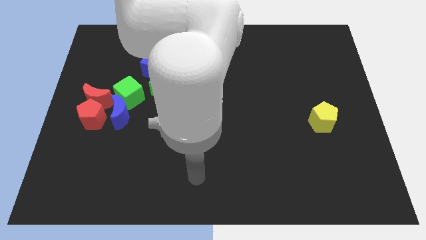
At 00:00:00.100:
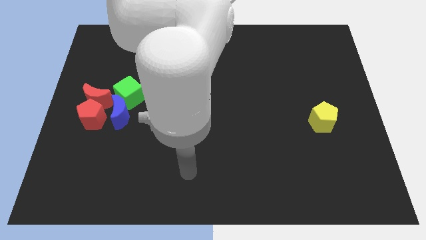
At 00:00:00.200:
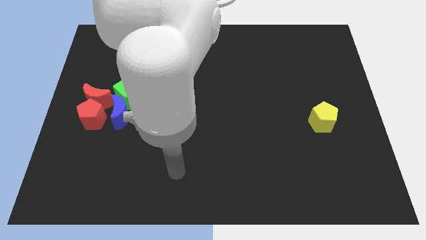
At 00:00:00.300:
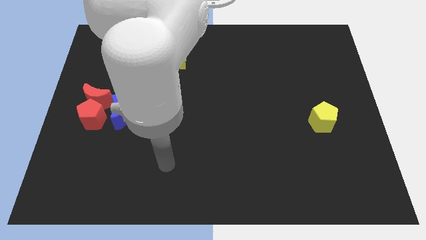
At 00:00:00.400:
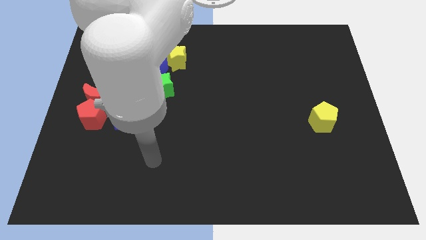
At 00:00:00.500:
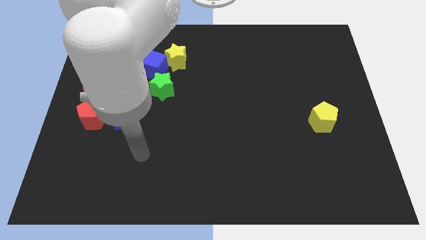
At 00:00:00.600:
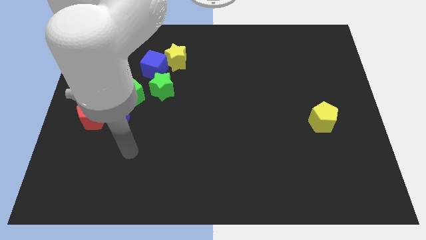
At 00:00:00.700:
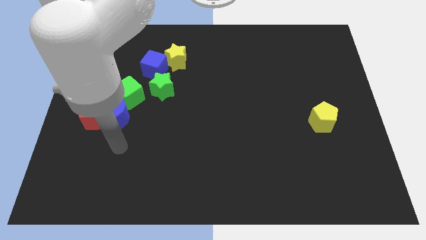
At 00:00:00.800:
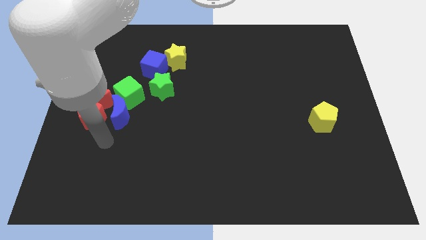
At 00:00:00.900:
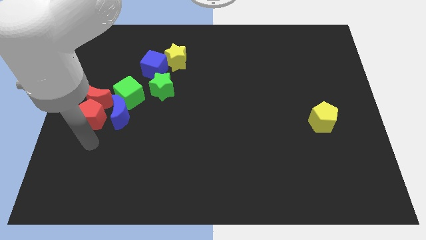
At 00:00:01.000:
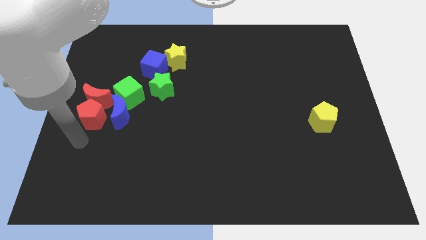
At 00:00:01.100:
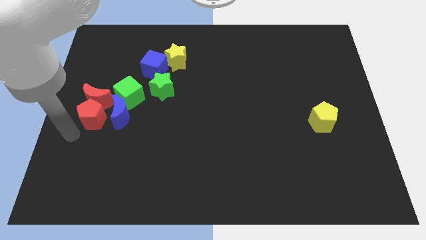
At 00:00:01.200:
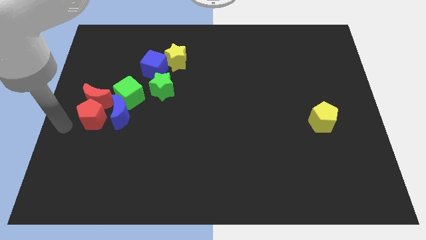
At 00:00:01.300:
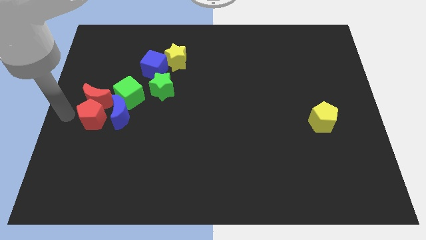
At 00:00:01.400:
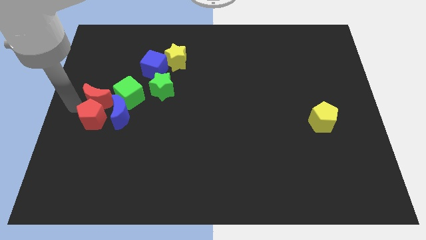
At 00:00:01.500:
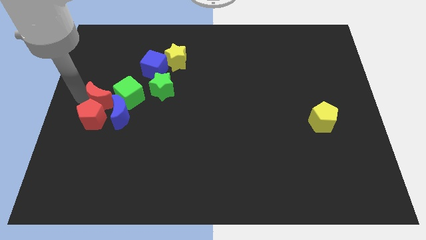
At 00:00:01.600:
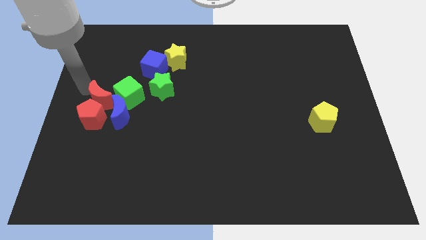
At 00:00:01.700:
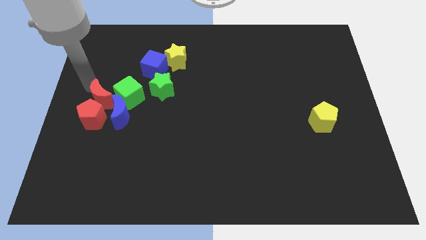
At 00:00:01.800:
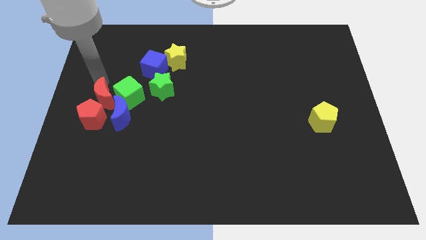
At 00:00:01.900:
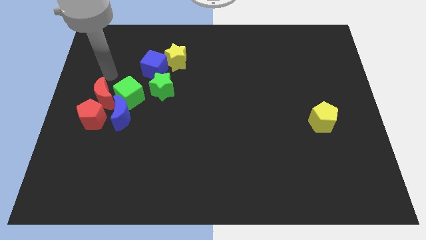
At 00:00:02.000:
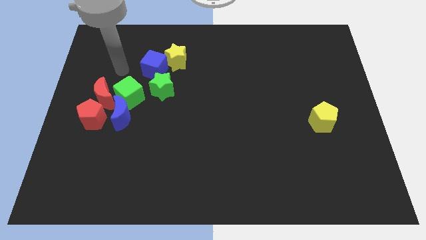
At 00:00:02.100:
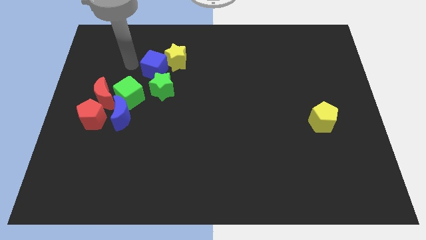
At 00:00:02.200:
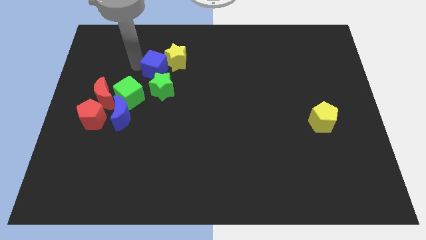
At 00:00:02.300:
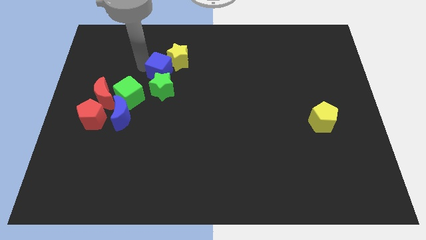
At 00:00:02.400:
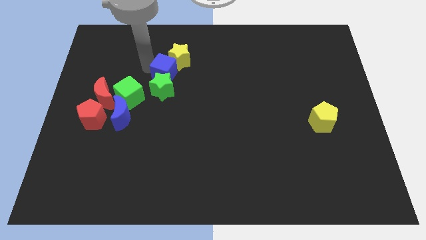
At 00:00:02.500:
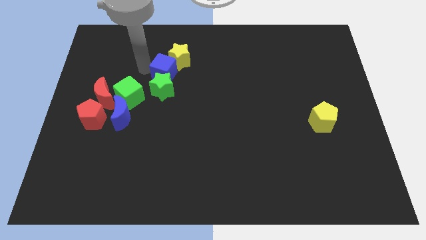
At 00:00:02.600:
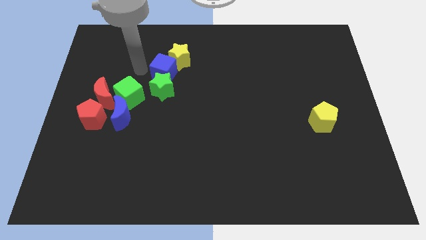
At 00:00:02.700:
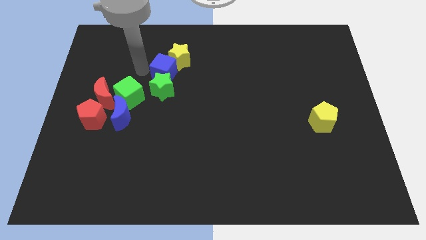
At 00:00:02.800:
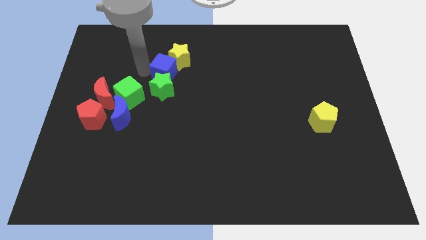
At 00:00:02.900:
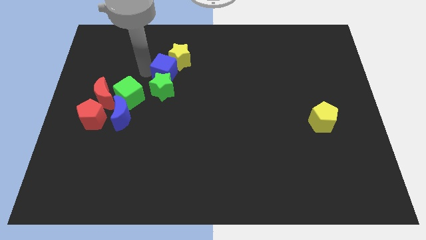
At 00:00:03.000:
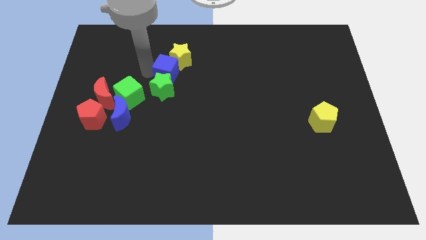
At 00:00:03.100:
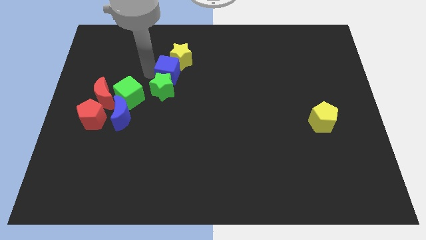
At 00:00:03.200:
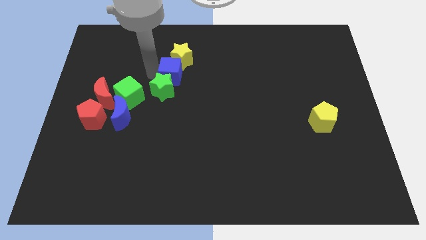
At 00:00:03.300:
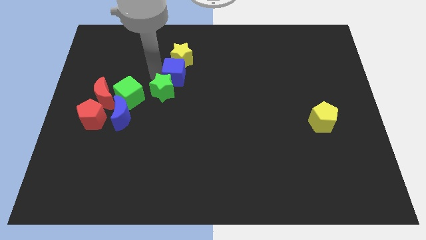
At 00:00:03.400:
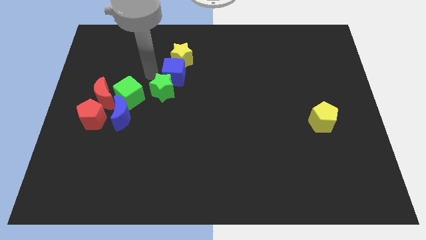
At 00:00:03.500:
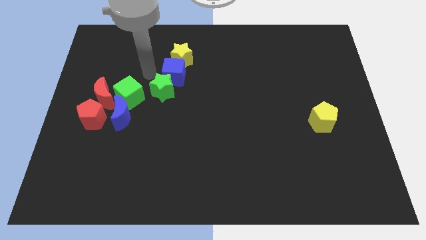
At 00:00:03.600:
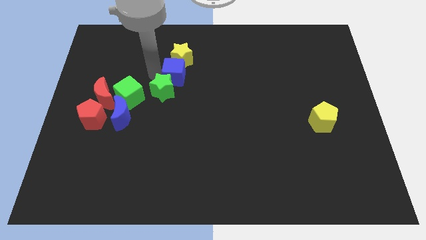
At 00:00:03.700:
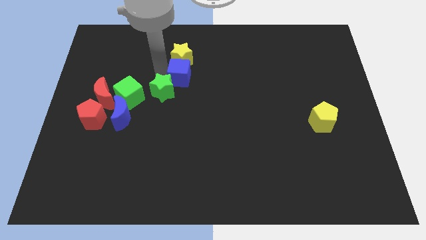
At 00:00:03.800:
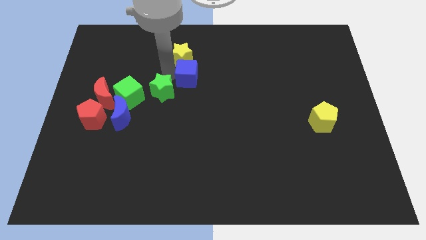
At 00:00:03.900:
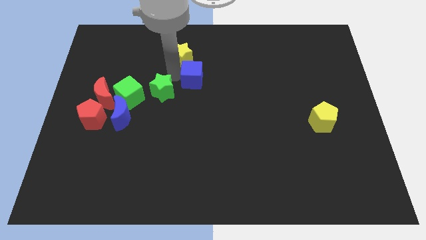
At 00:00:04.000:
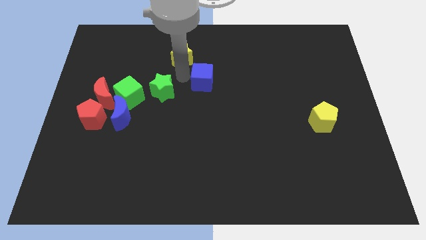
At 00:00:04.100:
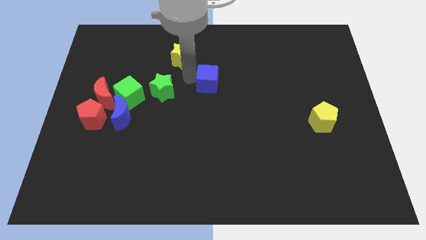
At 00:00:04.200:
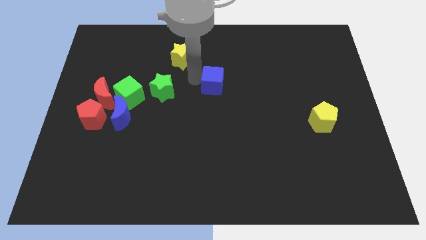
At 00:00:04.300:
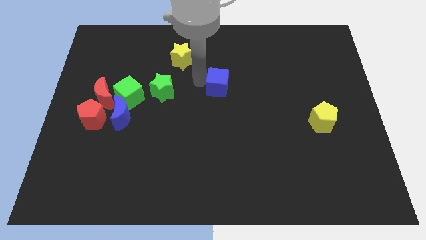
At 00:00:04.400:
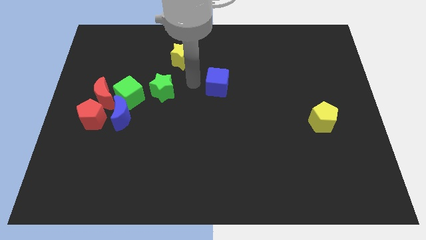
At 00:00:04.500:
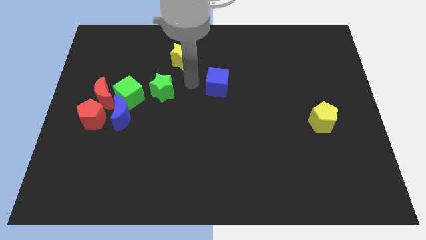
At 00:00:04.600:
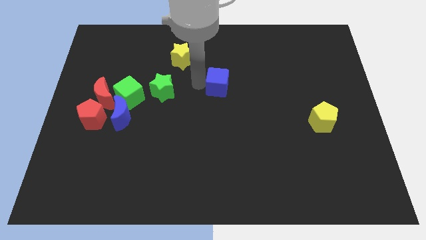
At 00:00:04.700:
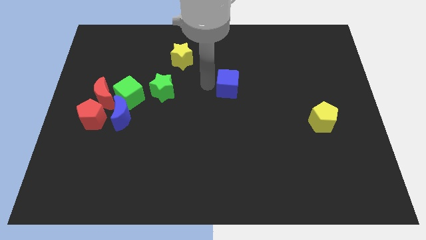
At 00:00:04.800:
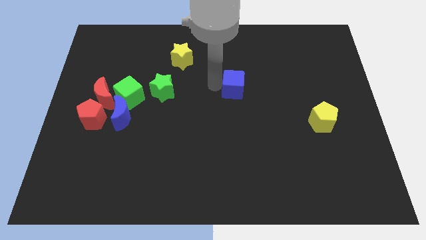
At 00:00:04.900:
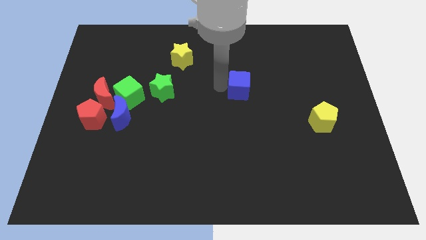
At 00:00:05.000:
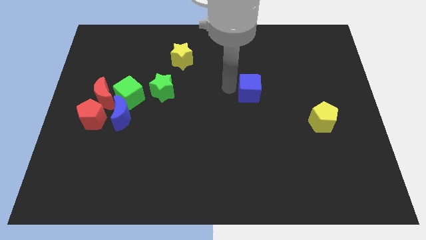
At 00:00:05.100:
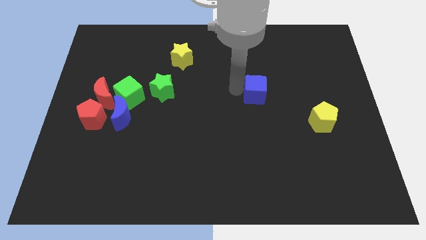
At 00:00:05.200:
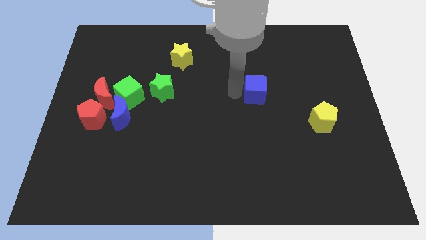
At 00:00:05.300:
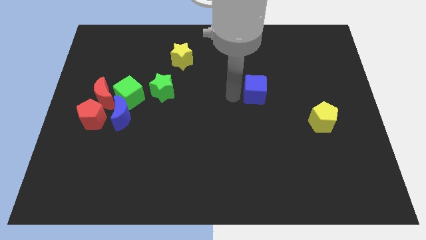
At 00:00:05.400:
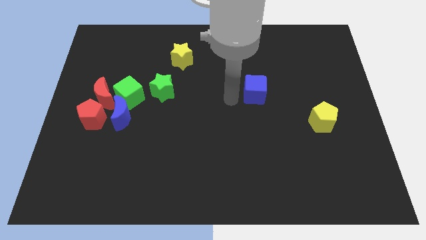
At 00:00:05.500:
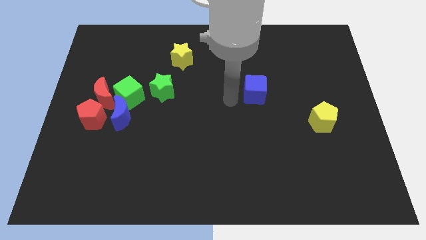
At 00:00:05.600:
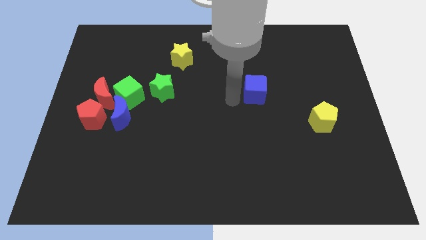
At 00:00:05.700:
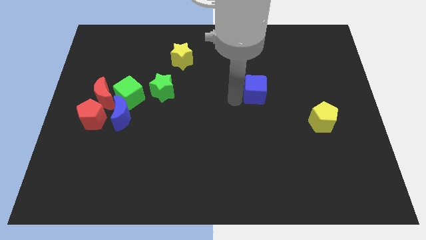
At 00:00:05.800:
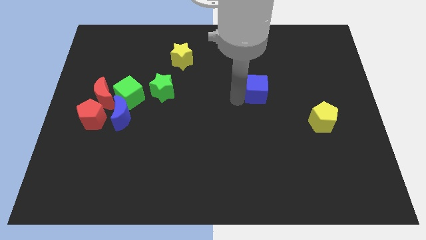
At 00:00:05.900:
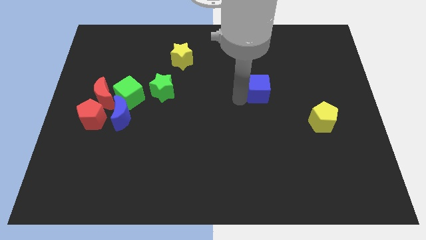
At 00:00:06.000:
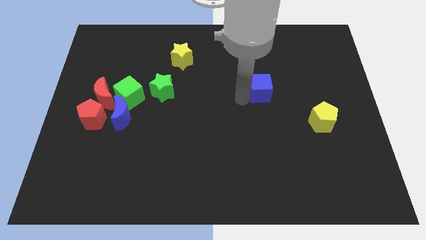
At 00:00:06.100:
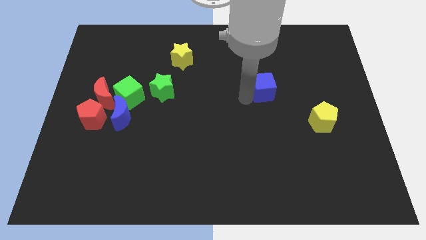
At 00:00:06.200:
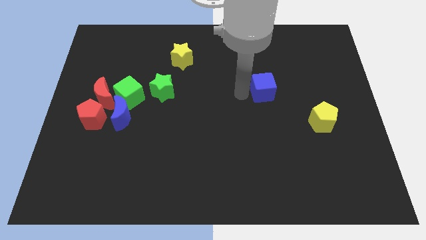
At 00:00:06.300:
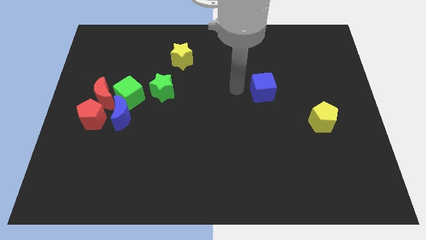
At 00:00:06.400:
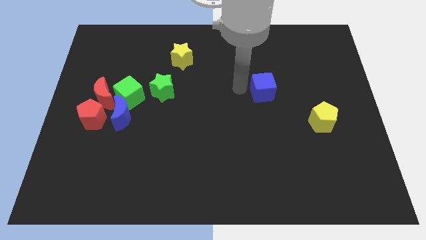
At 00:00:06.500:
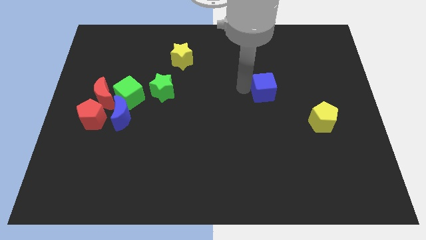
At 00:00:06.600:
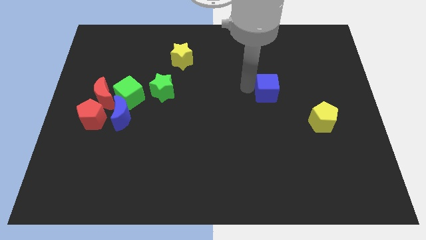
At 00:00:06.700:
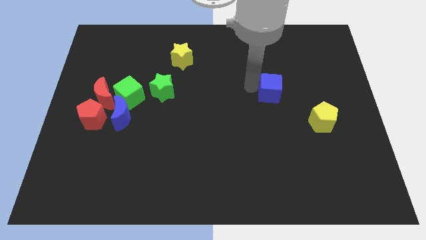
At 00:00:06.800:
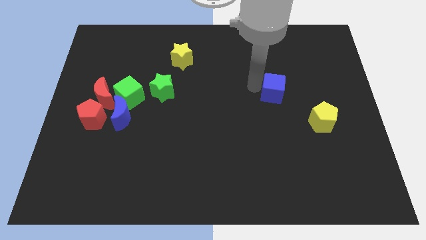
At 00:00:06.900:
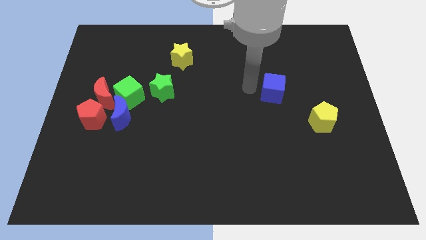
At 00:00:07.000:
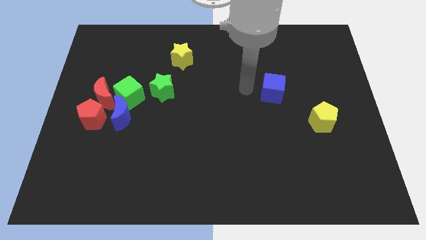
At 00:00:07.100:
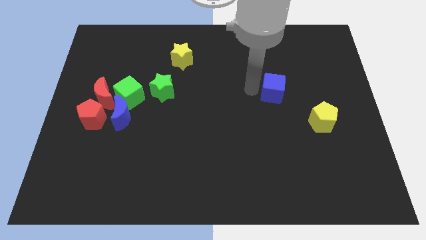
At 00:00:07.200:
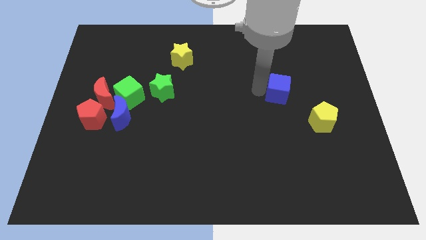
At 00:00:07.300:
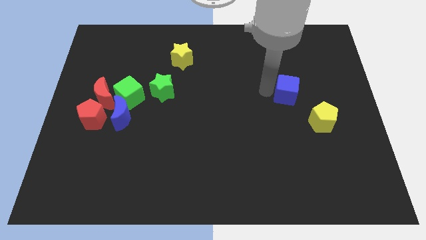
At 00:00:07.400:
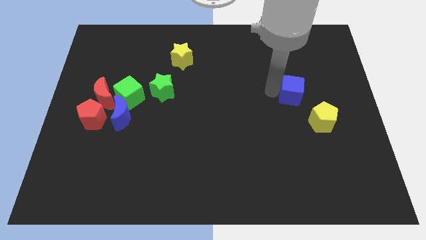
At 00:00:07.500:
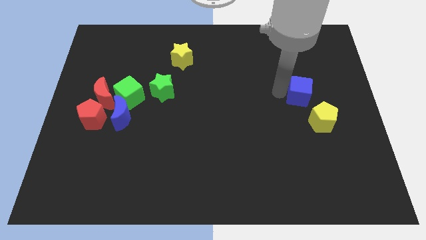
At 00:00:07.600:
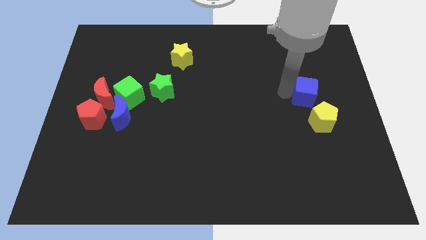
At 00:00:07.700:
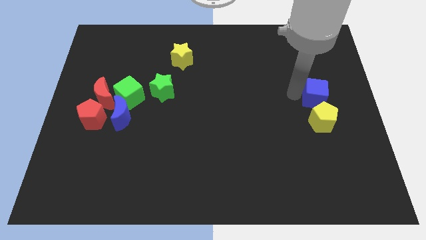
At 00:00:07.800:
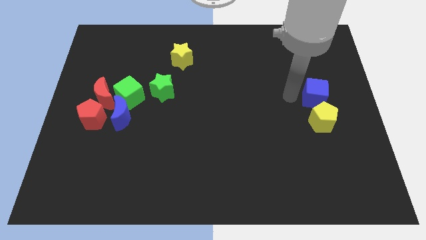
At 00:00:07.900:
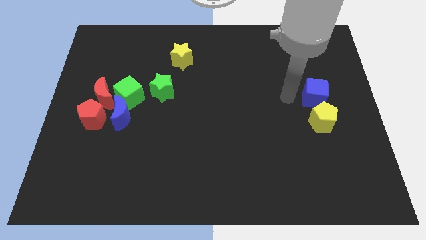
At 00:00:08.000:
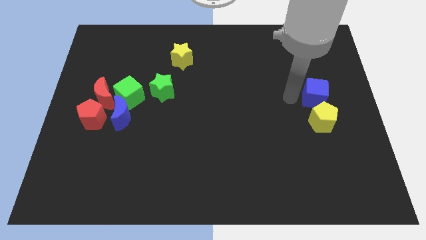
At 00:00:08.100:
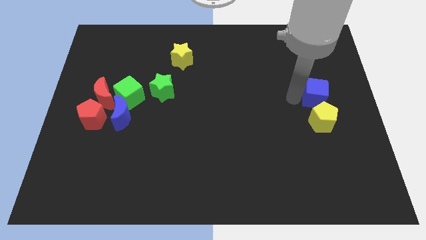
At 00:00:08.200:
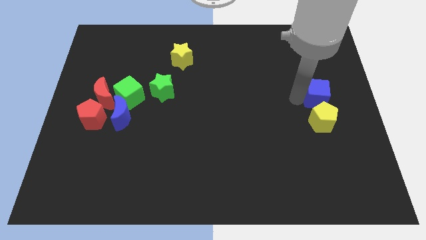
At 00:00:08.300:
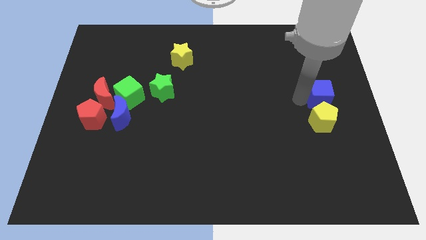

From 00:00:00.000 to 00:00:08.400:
move the blue cube to the right side
